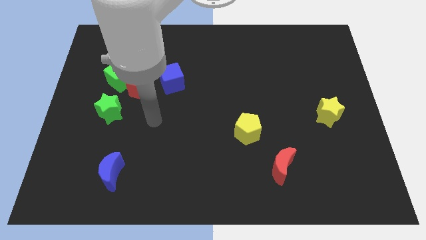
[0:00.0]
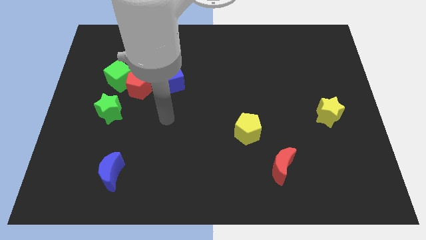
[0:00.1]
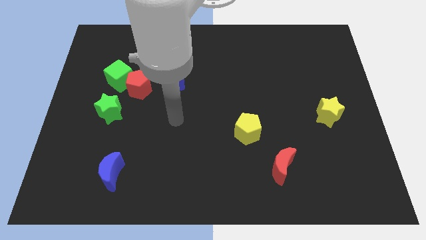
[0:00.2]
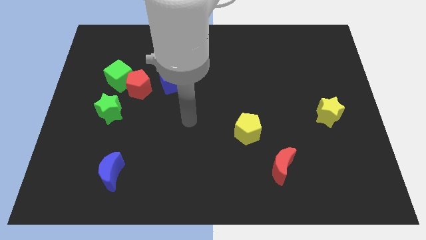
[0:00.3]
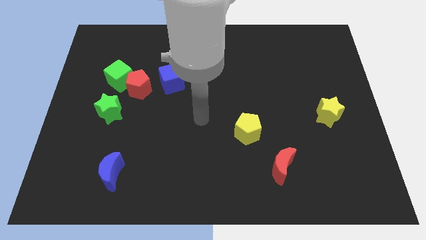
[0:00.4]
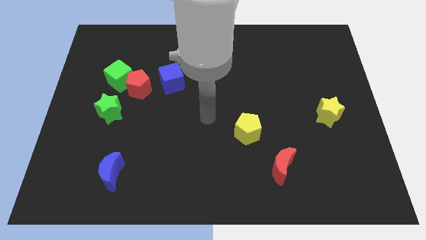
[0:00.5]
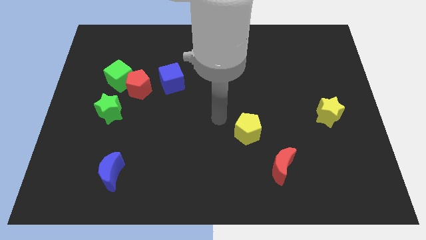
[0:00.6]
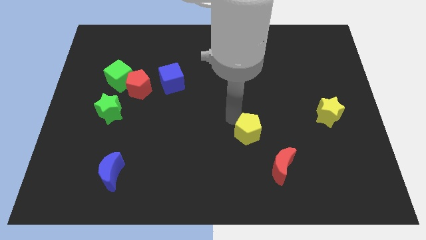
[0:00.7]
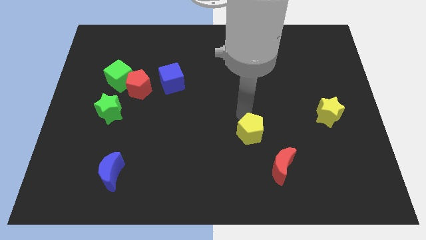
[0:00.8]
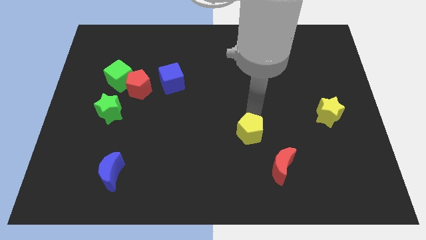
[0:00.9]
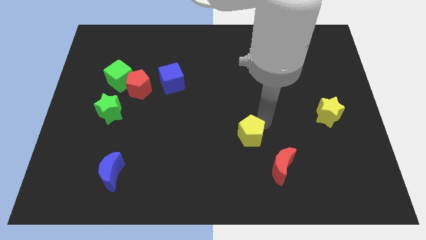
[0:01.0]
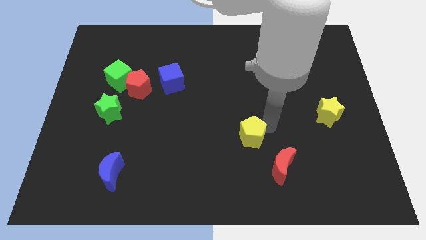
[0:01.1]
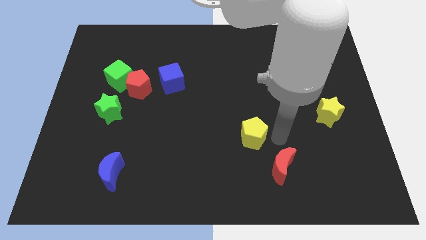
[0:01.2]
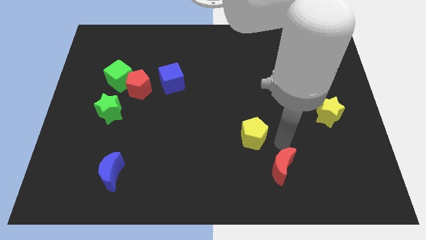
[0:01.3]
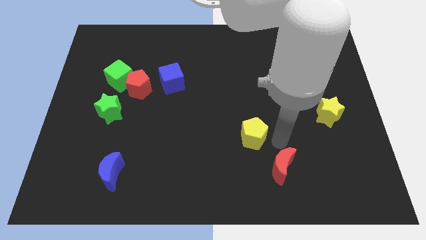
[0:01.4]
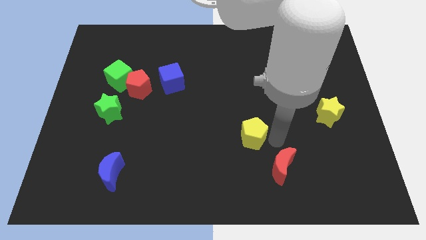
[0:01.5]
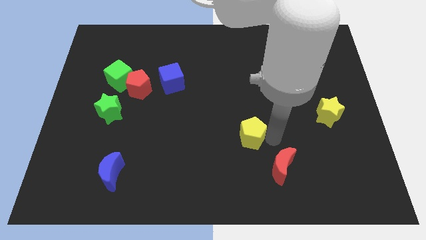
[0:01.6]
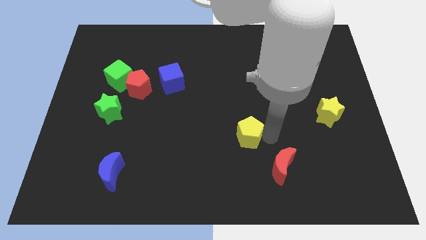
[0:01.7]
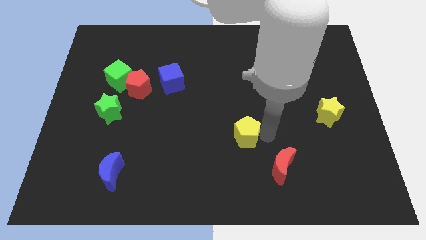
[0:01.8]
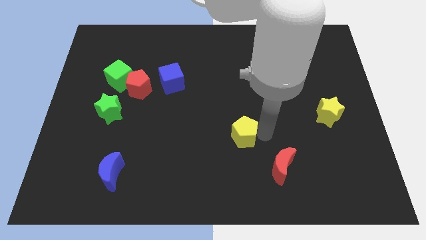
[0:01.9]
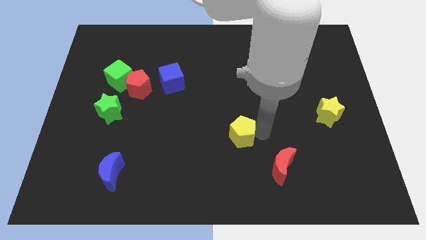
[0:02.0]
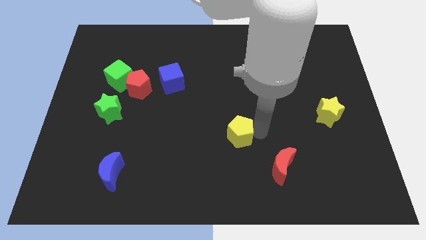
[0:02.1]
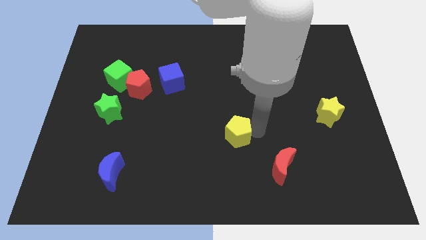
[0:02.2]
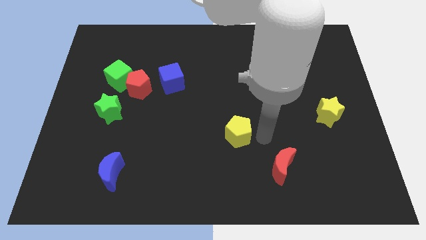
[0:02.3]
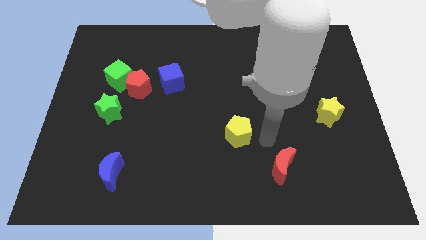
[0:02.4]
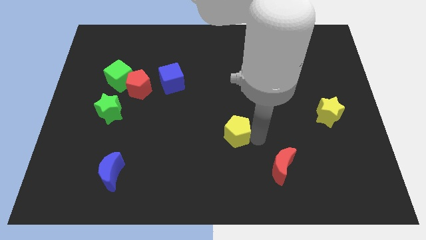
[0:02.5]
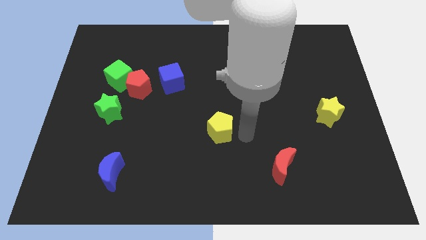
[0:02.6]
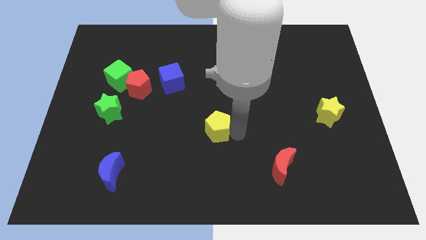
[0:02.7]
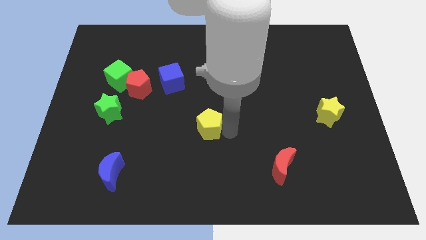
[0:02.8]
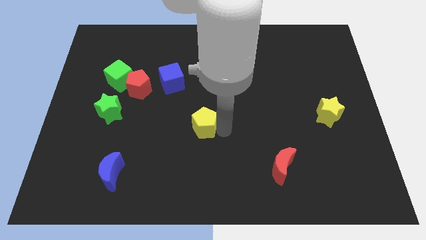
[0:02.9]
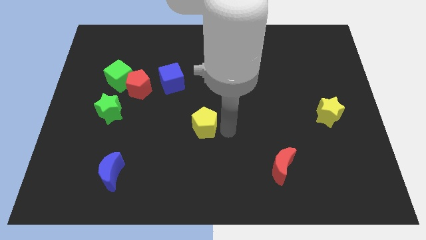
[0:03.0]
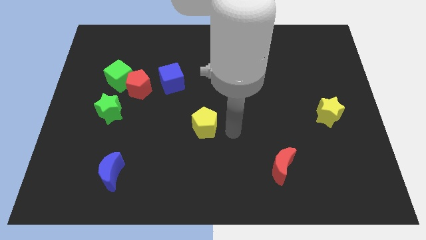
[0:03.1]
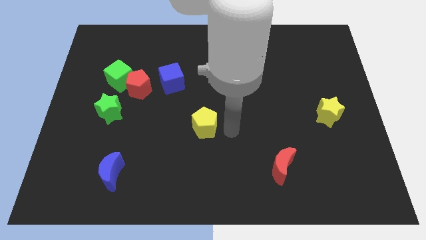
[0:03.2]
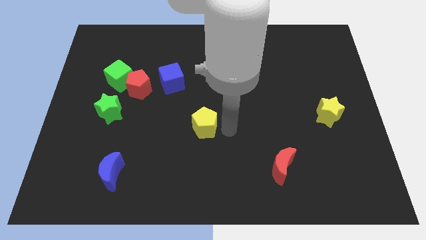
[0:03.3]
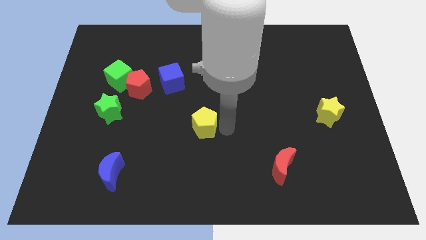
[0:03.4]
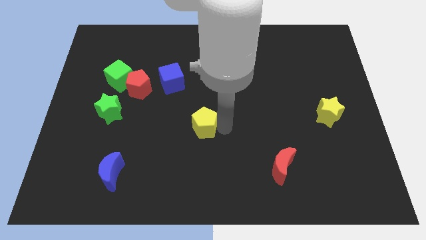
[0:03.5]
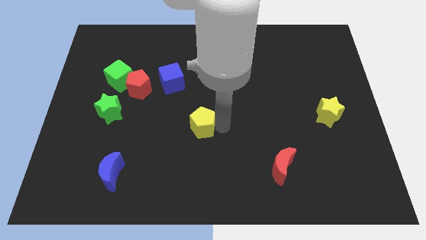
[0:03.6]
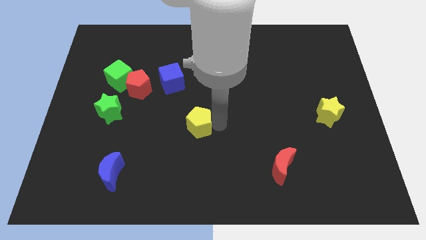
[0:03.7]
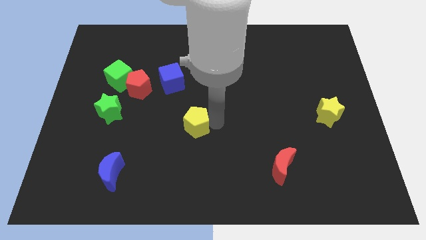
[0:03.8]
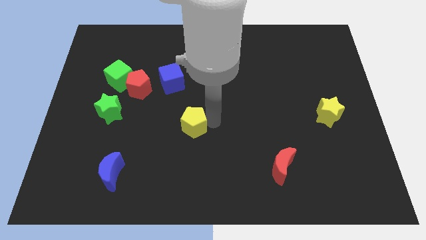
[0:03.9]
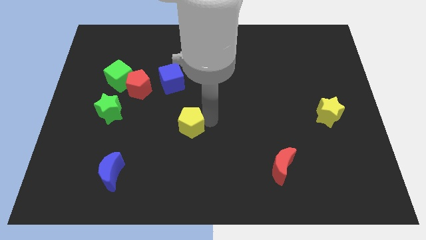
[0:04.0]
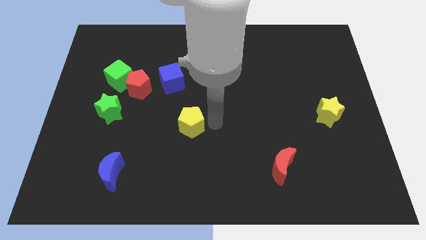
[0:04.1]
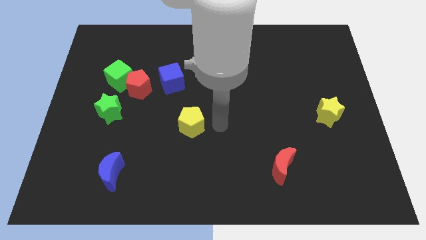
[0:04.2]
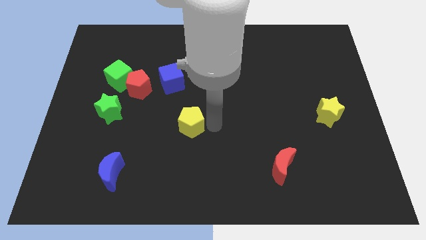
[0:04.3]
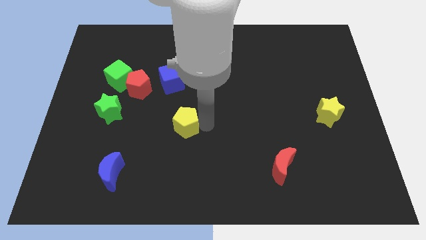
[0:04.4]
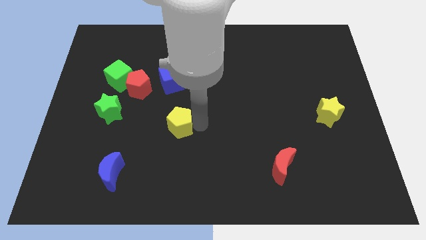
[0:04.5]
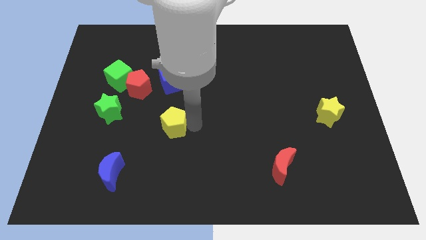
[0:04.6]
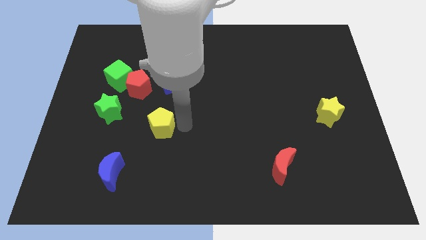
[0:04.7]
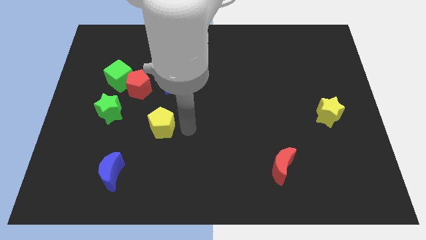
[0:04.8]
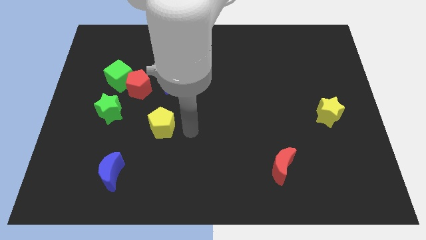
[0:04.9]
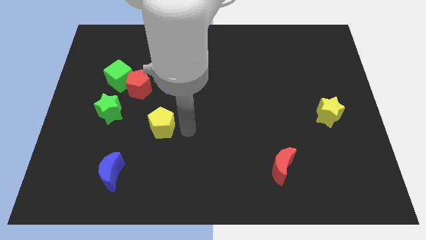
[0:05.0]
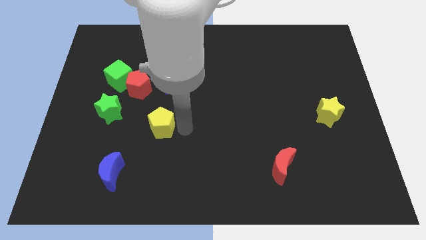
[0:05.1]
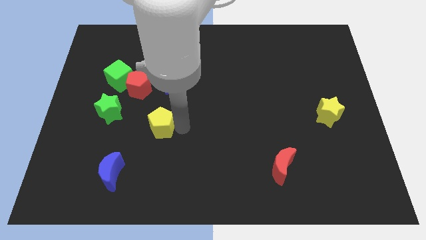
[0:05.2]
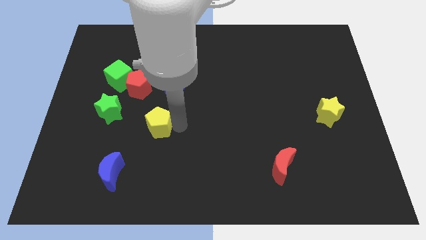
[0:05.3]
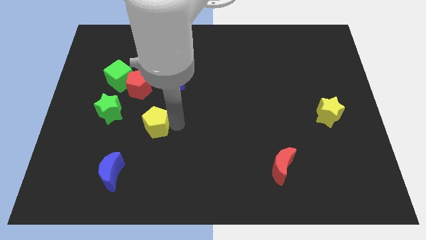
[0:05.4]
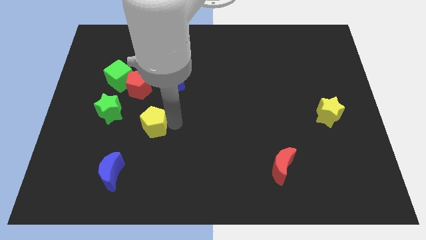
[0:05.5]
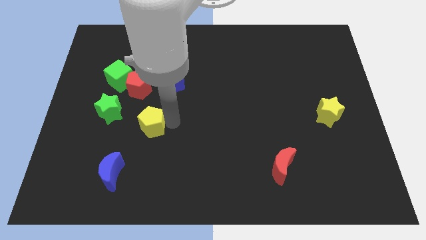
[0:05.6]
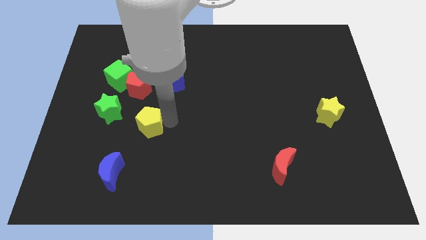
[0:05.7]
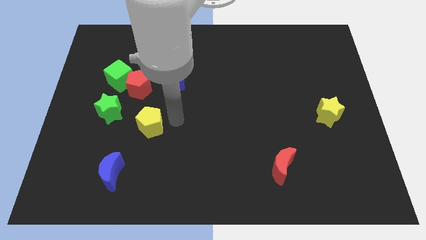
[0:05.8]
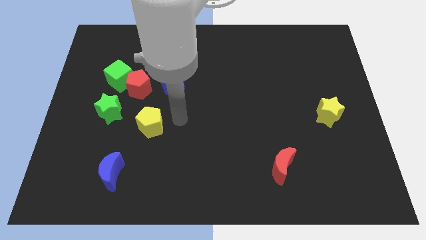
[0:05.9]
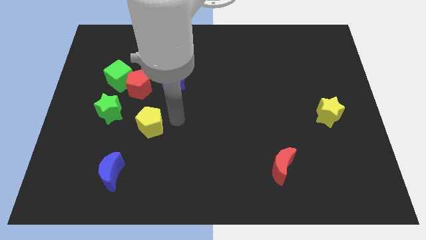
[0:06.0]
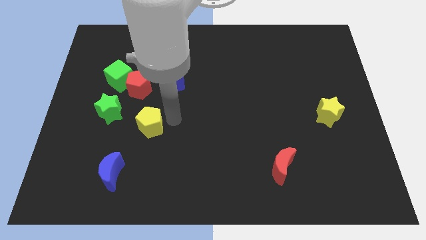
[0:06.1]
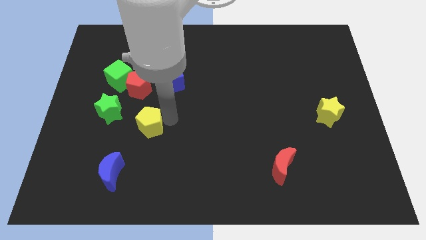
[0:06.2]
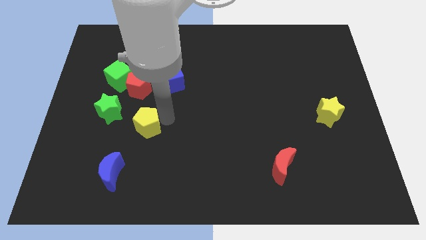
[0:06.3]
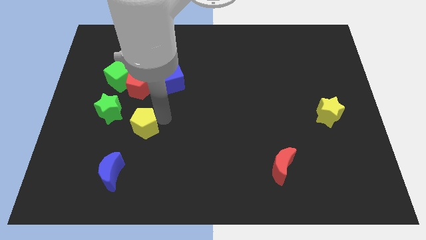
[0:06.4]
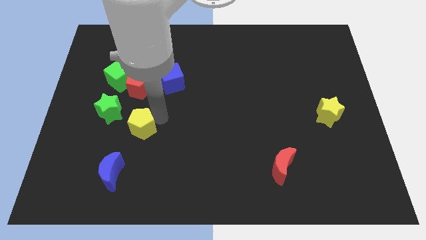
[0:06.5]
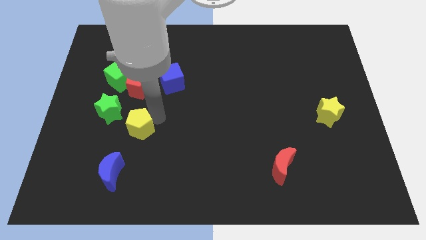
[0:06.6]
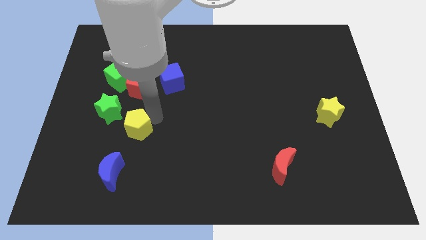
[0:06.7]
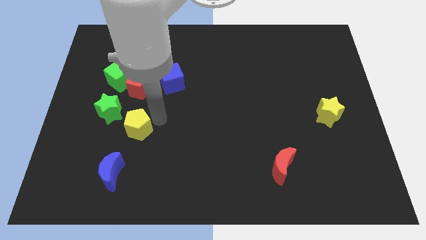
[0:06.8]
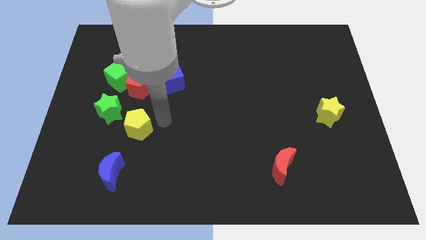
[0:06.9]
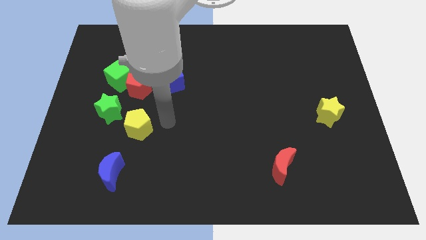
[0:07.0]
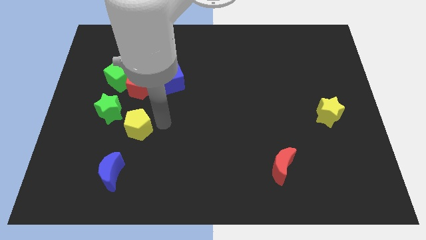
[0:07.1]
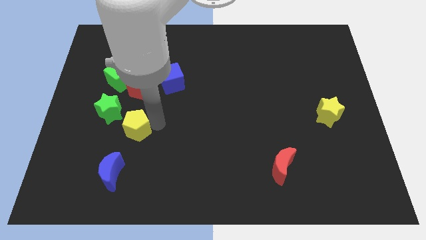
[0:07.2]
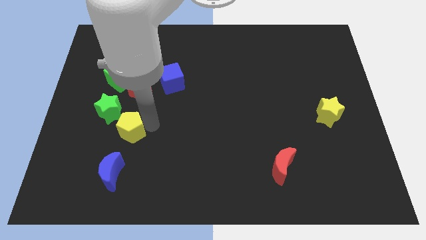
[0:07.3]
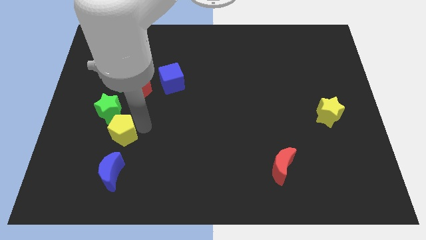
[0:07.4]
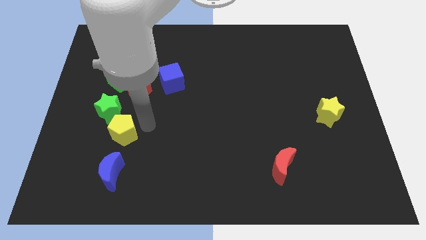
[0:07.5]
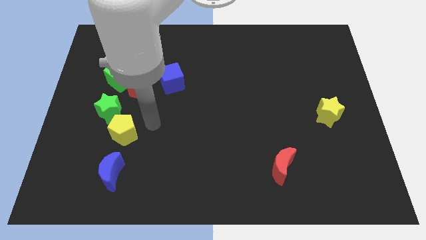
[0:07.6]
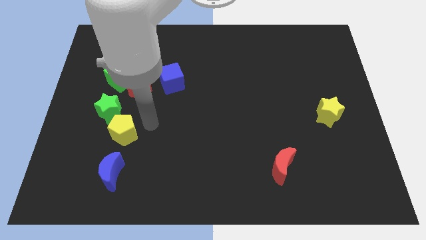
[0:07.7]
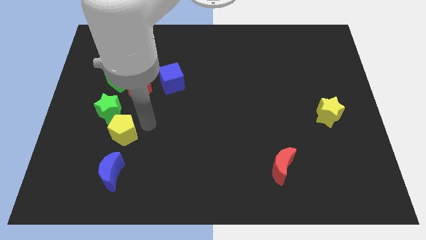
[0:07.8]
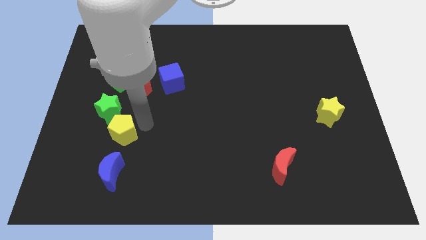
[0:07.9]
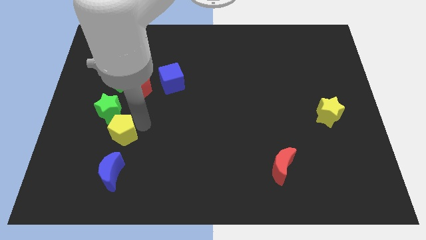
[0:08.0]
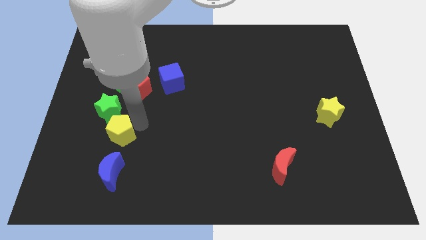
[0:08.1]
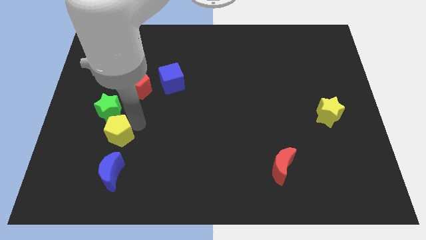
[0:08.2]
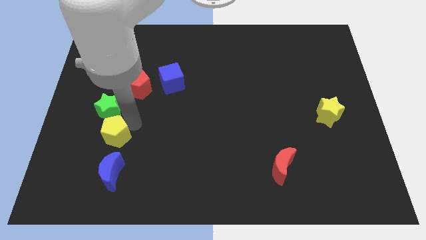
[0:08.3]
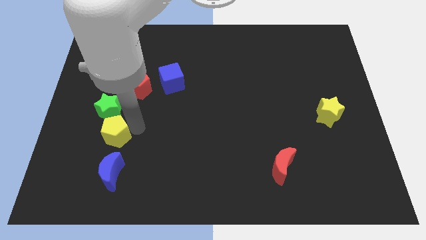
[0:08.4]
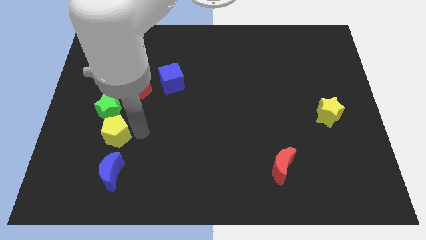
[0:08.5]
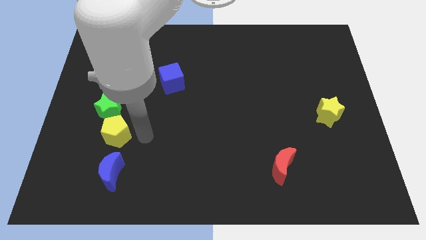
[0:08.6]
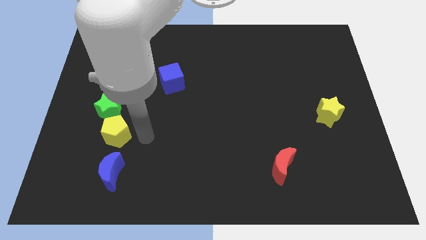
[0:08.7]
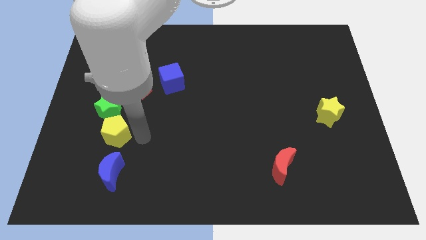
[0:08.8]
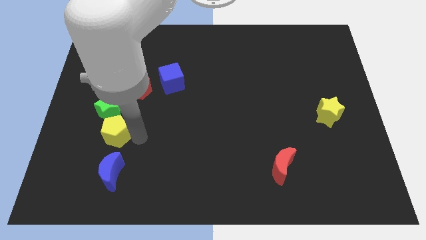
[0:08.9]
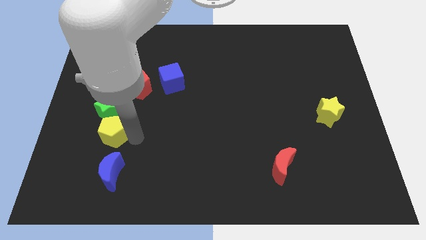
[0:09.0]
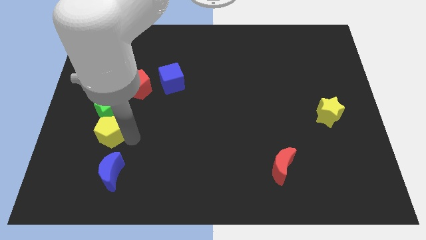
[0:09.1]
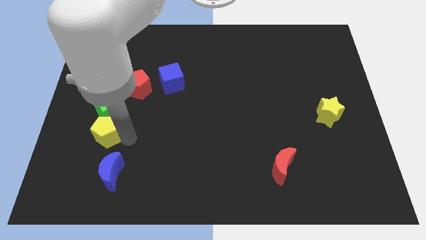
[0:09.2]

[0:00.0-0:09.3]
push the yellow pentagon to the bottom left of the green star
